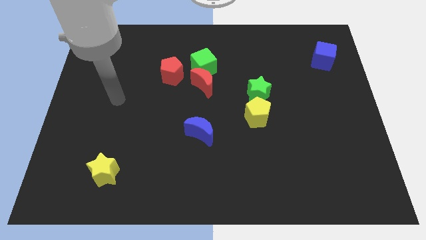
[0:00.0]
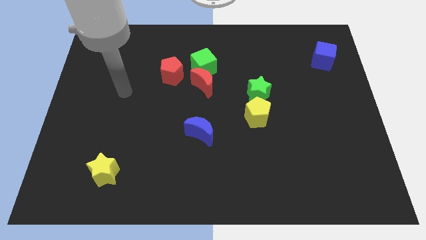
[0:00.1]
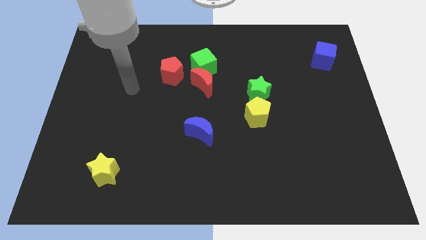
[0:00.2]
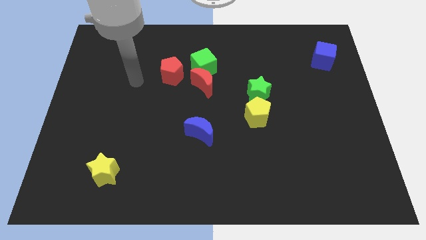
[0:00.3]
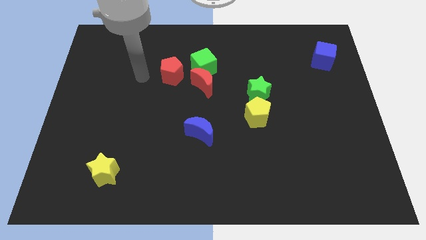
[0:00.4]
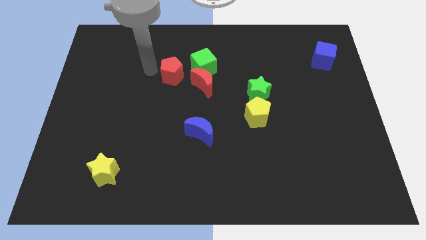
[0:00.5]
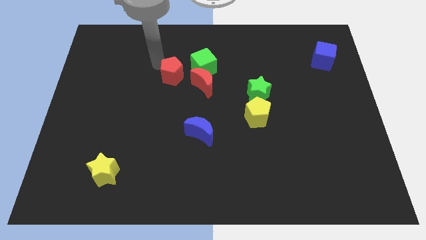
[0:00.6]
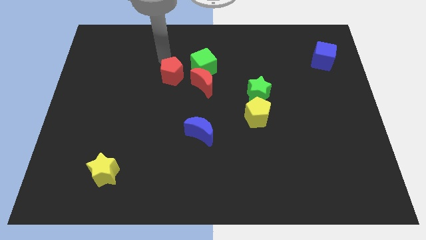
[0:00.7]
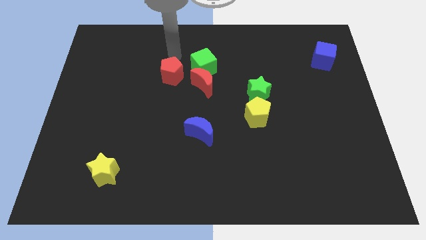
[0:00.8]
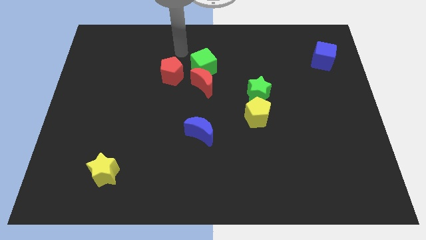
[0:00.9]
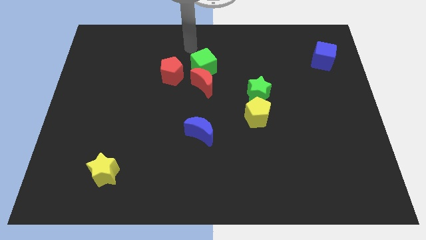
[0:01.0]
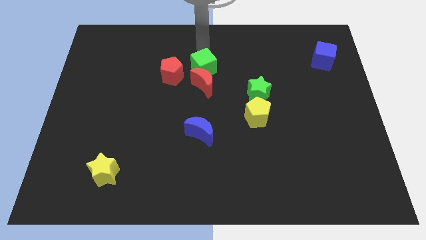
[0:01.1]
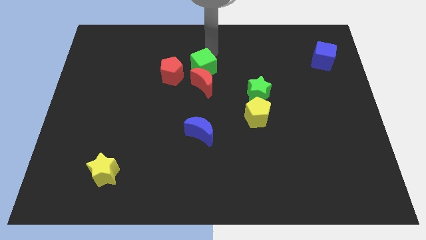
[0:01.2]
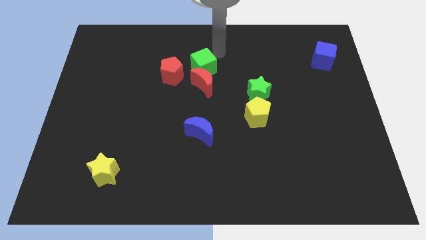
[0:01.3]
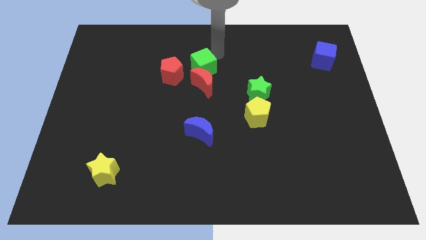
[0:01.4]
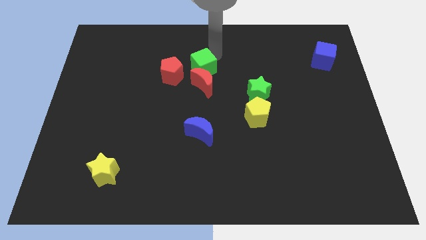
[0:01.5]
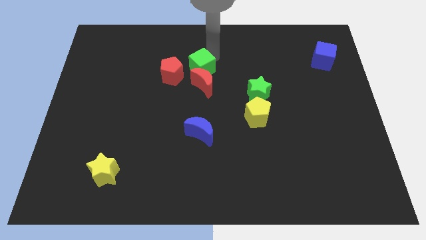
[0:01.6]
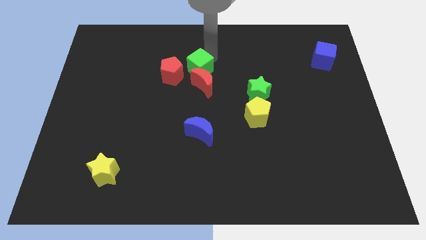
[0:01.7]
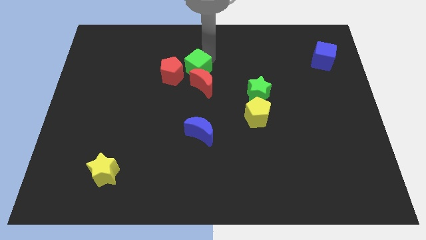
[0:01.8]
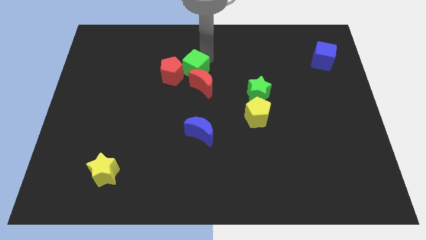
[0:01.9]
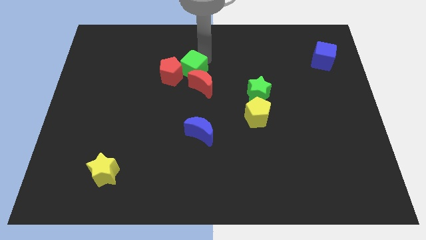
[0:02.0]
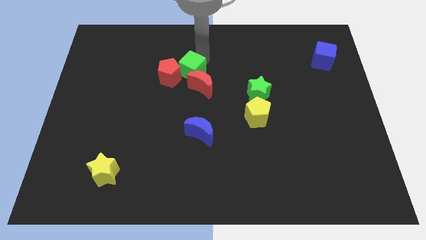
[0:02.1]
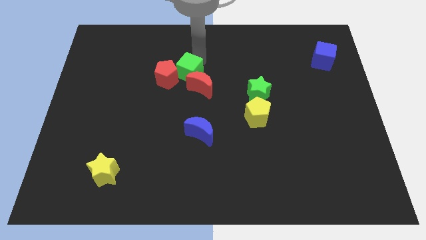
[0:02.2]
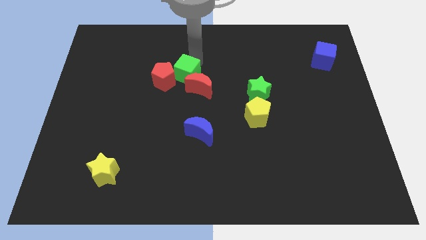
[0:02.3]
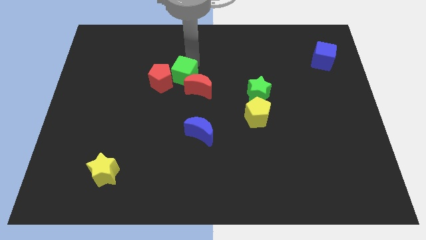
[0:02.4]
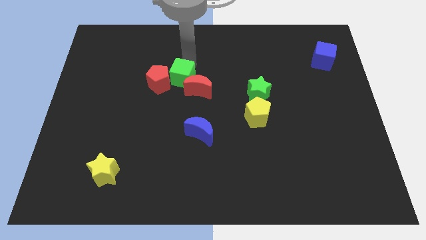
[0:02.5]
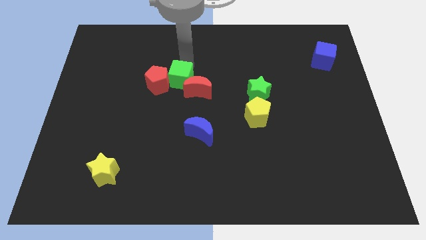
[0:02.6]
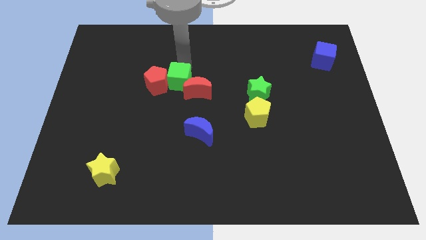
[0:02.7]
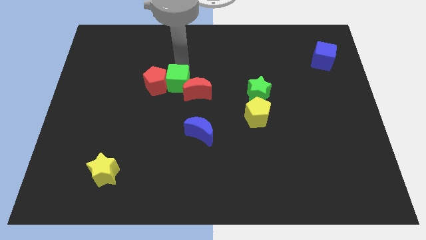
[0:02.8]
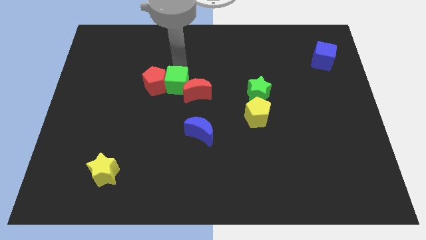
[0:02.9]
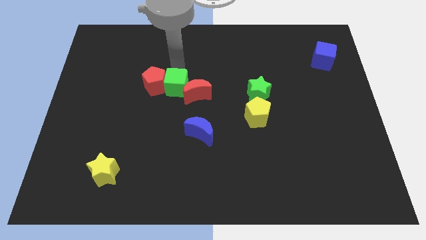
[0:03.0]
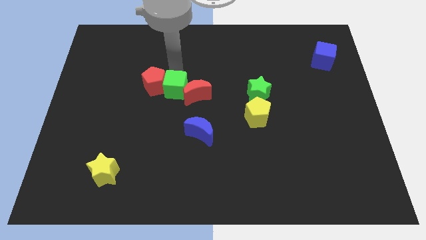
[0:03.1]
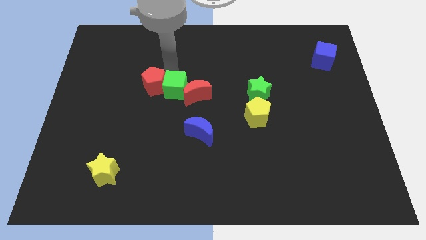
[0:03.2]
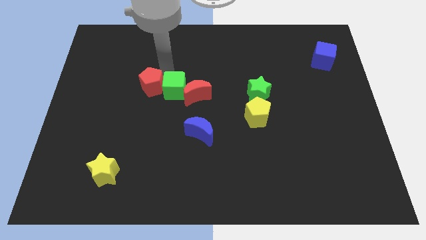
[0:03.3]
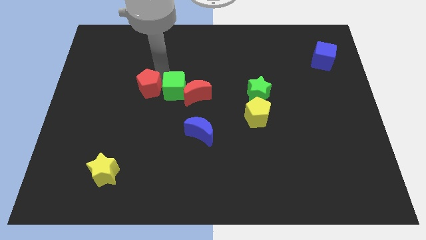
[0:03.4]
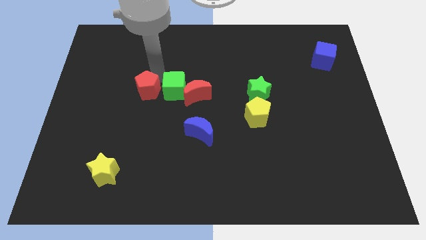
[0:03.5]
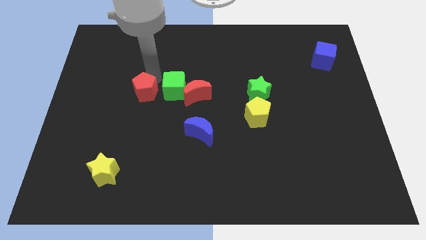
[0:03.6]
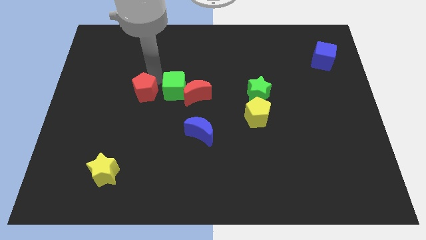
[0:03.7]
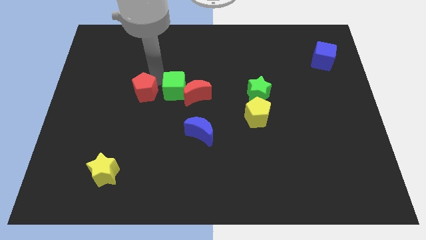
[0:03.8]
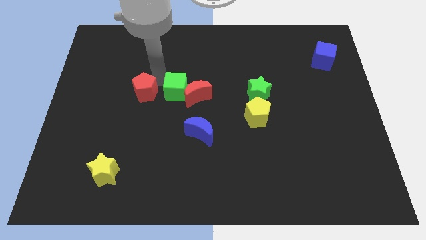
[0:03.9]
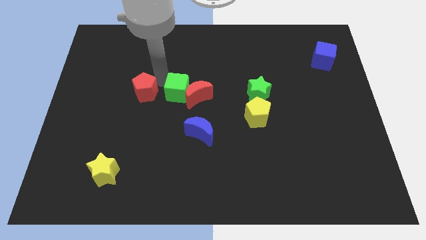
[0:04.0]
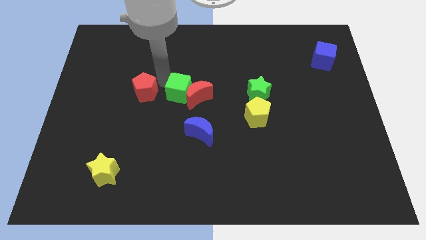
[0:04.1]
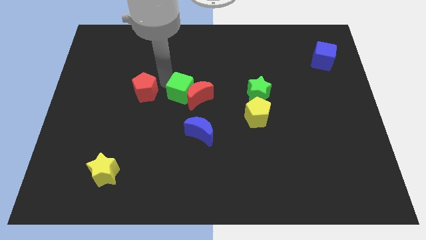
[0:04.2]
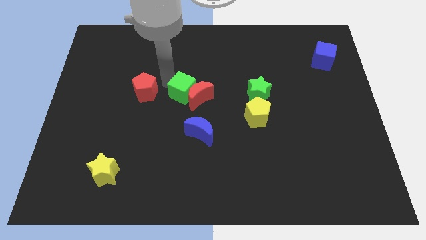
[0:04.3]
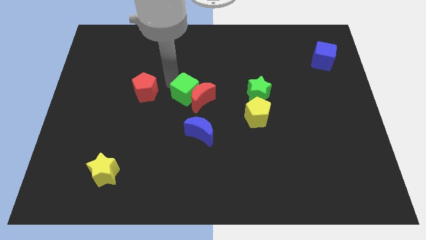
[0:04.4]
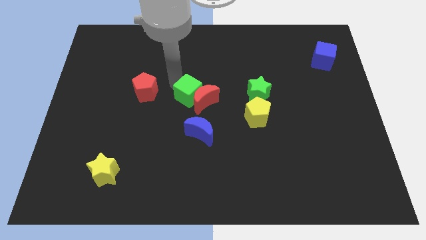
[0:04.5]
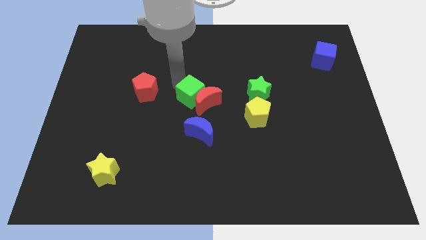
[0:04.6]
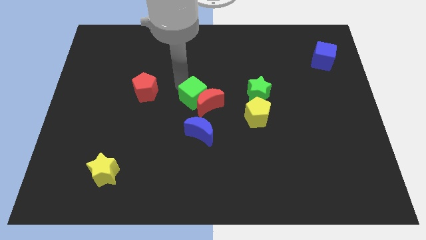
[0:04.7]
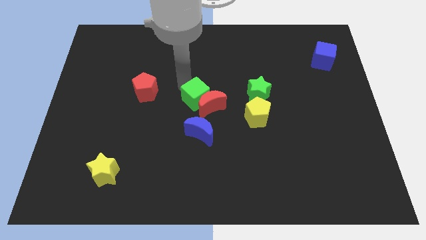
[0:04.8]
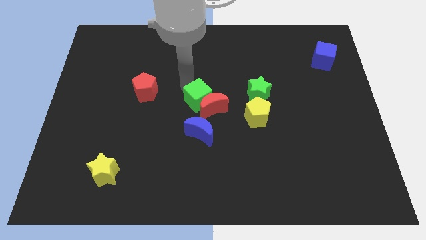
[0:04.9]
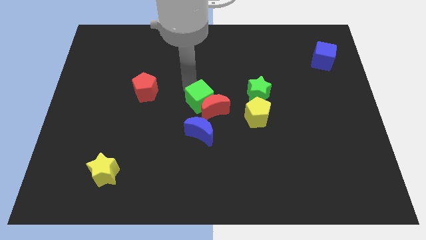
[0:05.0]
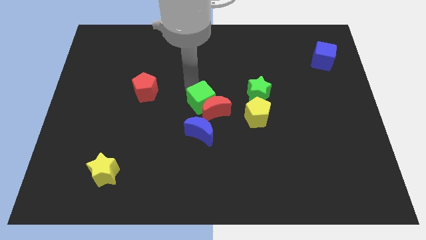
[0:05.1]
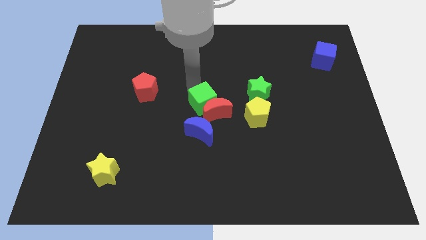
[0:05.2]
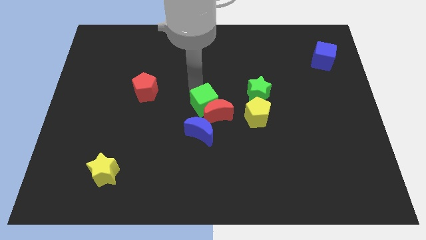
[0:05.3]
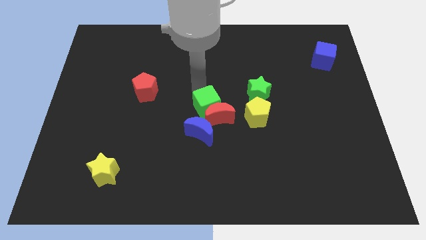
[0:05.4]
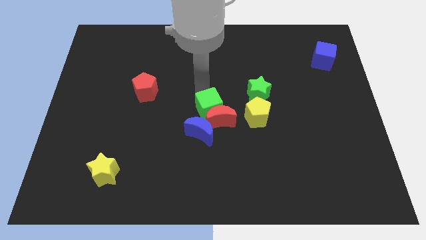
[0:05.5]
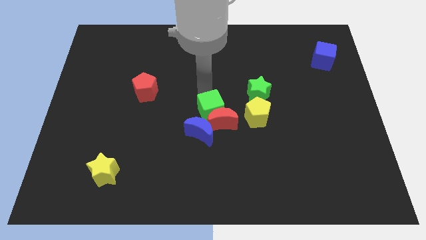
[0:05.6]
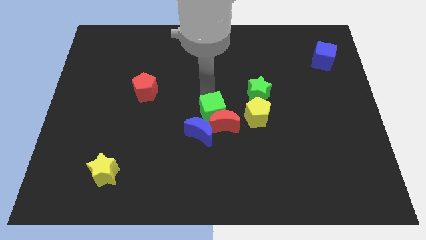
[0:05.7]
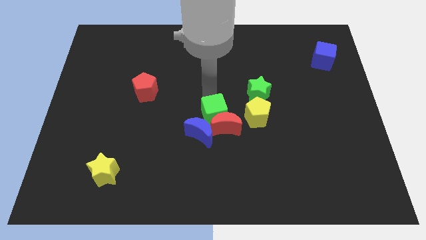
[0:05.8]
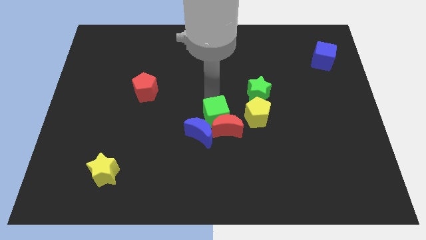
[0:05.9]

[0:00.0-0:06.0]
put the green cube towards the blue moon
